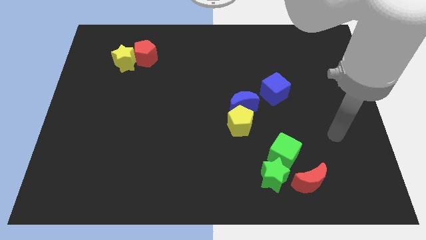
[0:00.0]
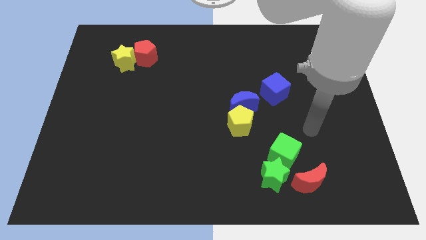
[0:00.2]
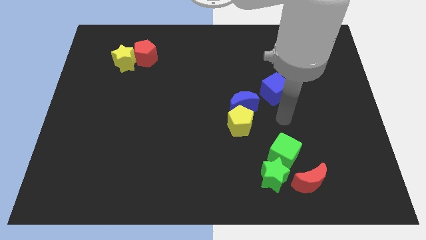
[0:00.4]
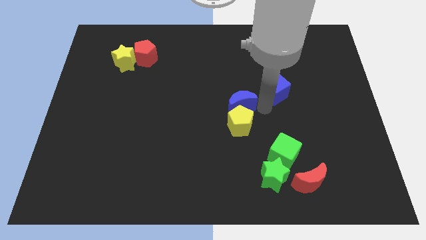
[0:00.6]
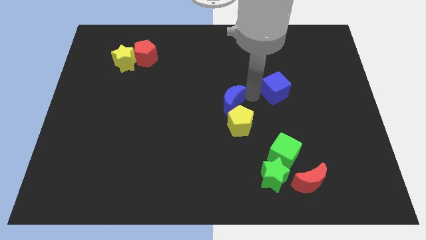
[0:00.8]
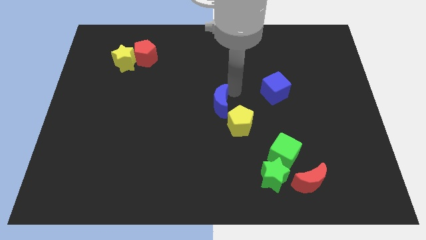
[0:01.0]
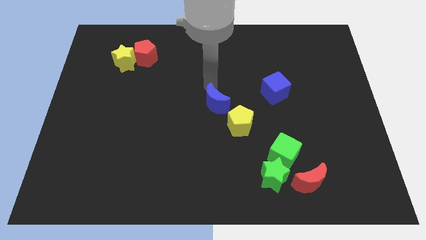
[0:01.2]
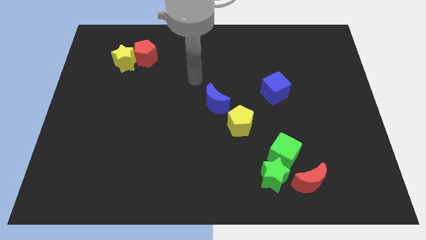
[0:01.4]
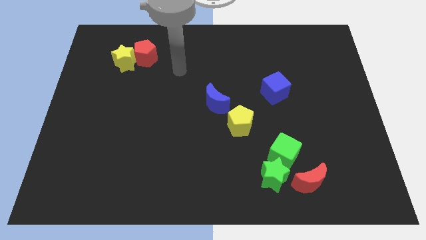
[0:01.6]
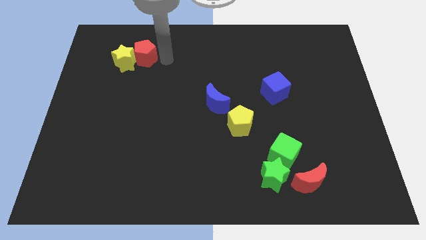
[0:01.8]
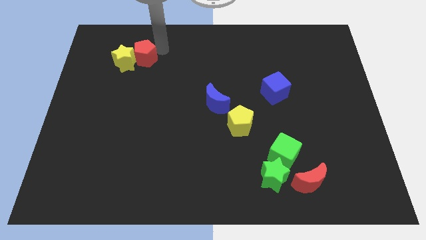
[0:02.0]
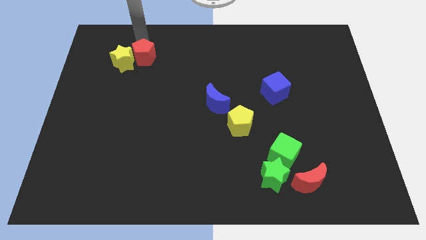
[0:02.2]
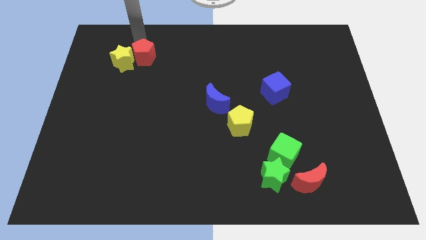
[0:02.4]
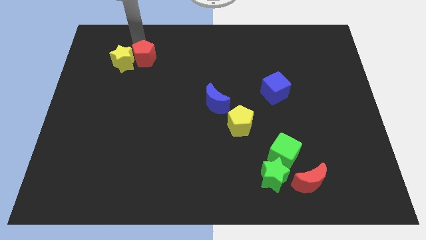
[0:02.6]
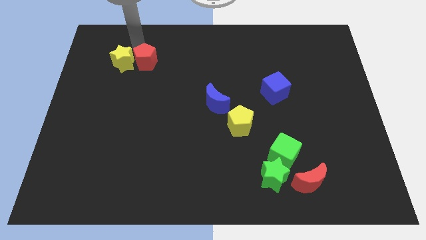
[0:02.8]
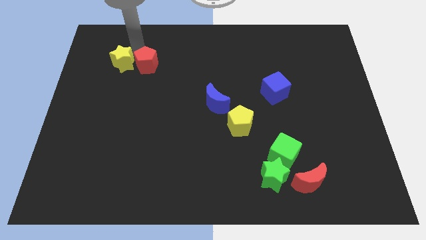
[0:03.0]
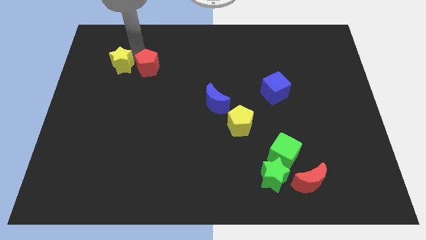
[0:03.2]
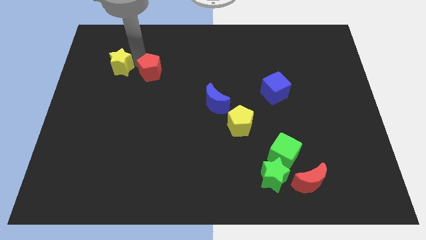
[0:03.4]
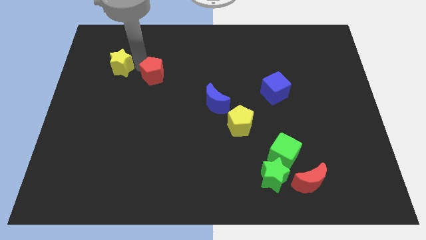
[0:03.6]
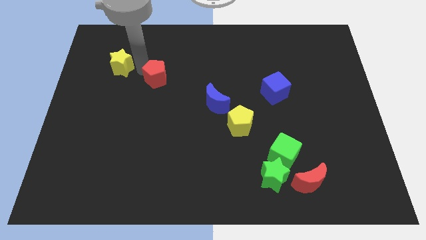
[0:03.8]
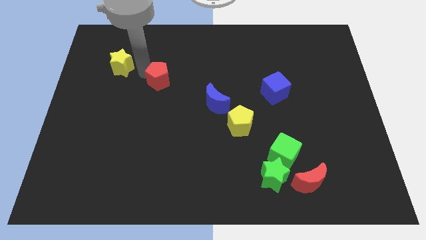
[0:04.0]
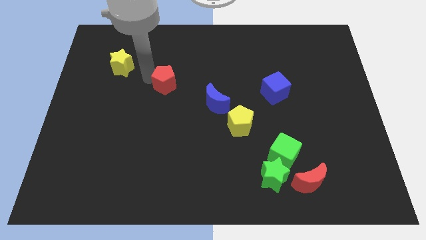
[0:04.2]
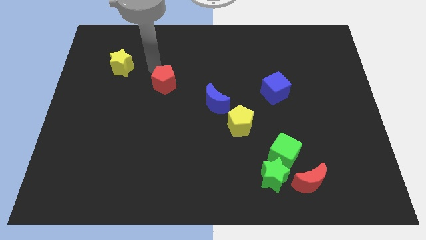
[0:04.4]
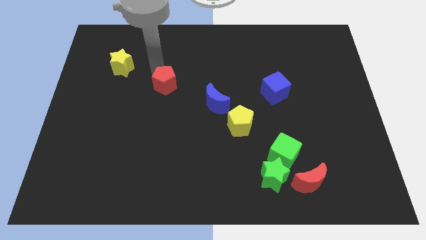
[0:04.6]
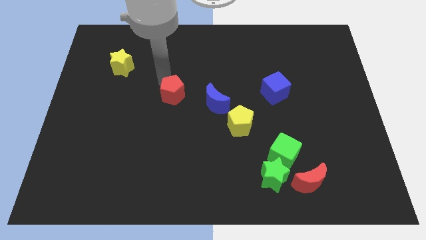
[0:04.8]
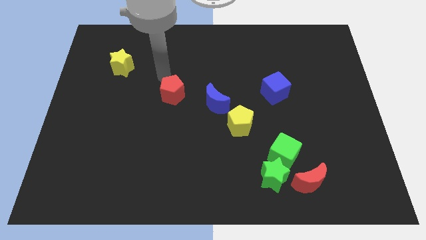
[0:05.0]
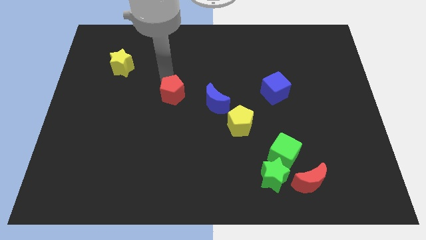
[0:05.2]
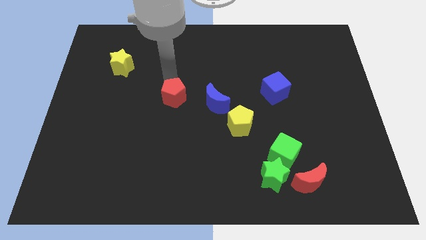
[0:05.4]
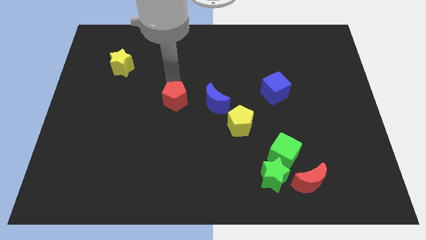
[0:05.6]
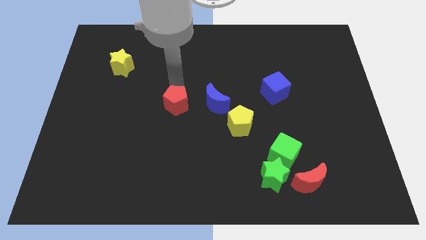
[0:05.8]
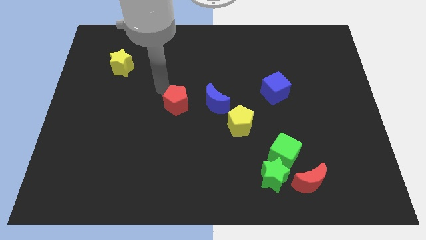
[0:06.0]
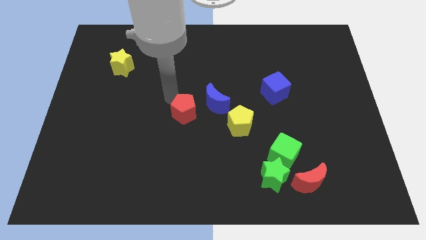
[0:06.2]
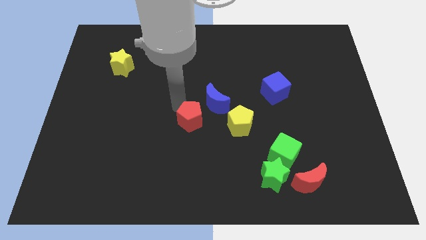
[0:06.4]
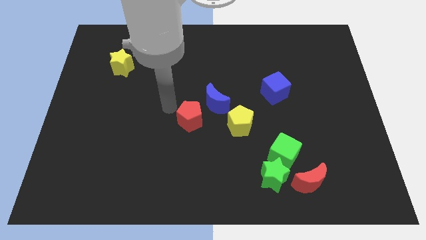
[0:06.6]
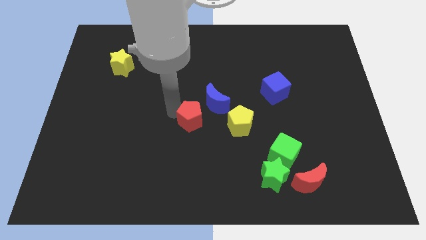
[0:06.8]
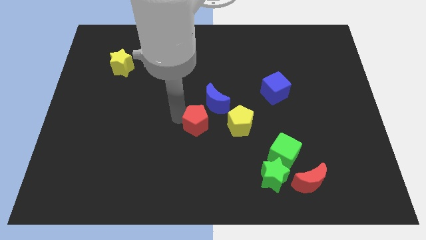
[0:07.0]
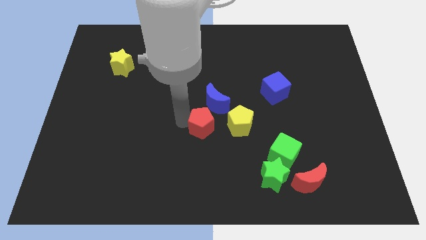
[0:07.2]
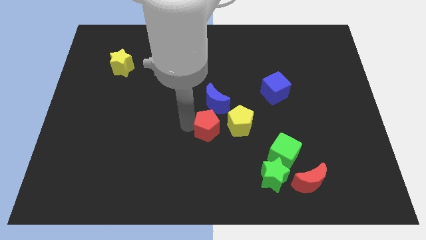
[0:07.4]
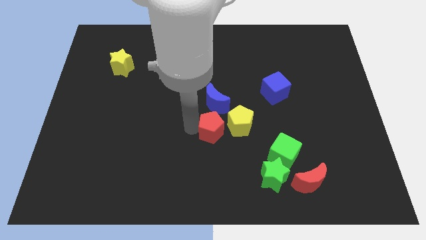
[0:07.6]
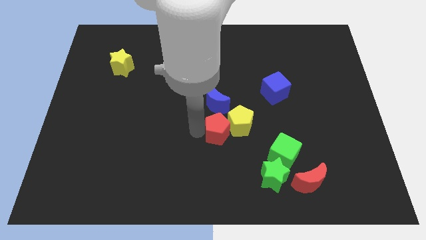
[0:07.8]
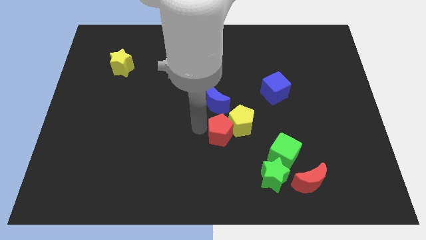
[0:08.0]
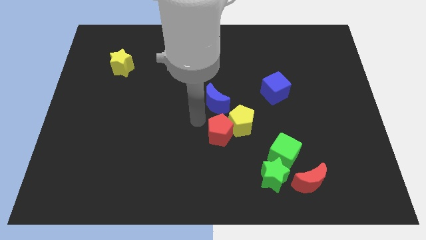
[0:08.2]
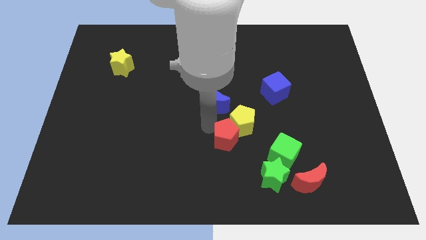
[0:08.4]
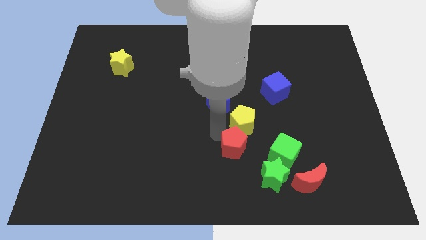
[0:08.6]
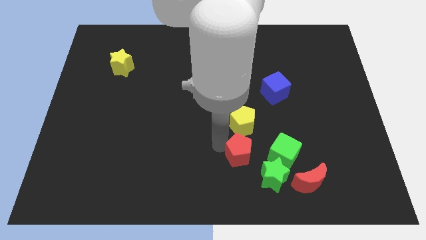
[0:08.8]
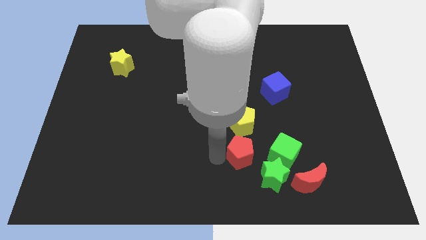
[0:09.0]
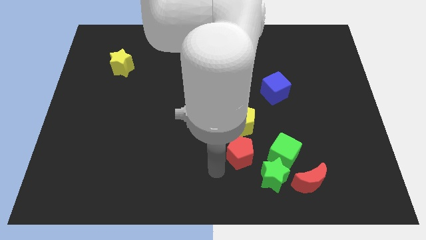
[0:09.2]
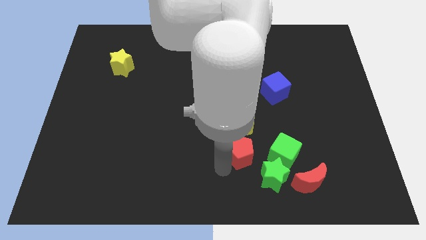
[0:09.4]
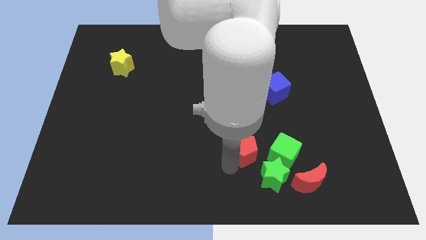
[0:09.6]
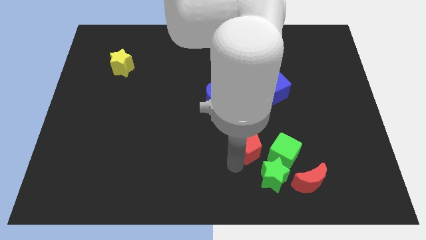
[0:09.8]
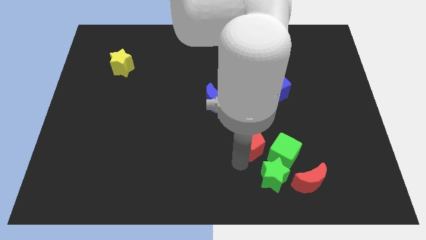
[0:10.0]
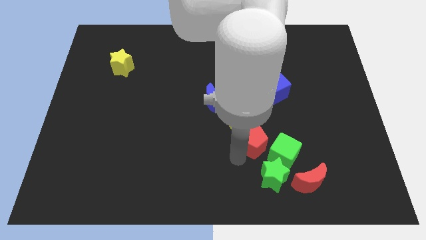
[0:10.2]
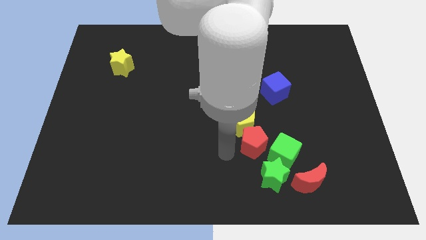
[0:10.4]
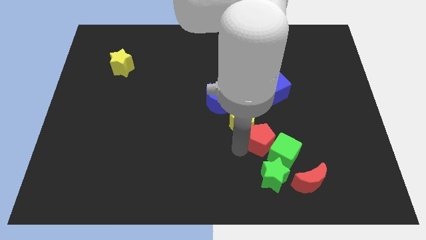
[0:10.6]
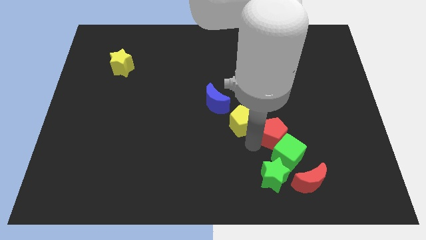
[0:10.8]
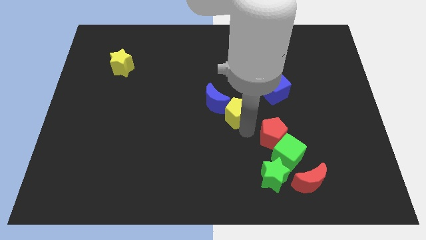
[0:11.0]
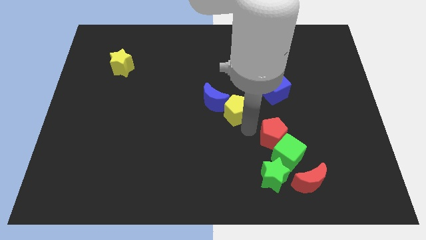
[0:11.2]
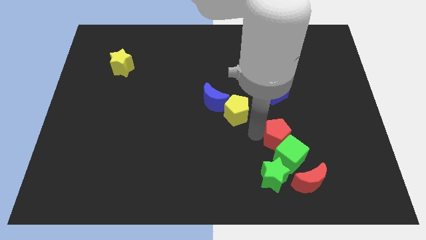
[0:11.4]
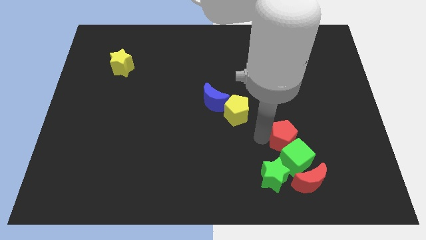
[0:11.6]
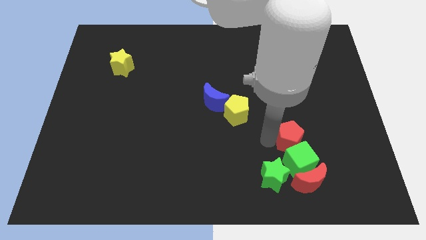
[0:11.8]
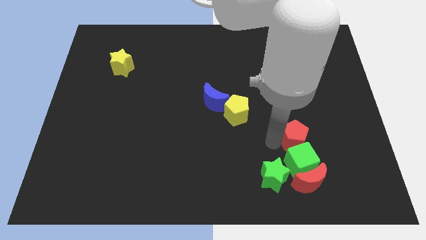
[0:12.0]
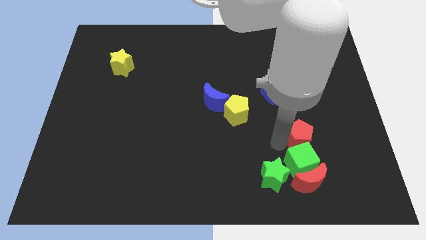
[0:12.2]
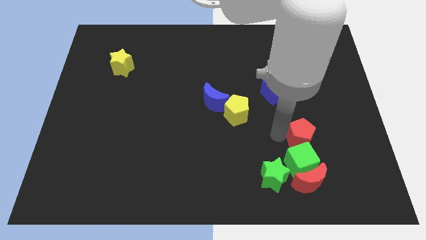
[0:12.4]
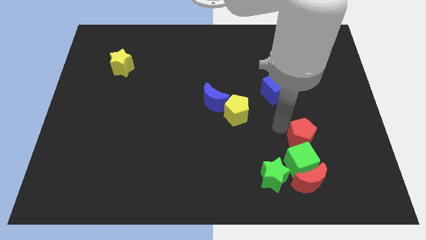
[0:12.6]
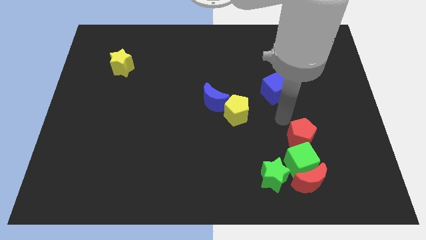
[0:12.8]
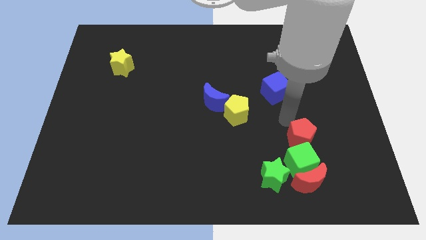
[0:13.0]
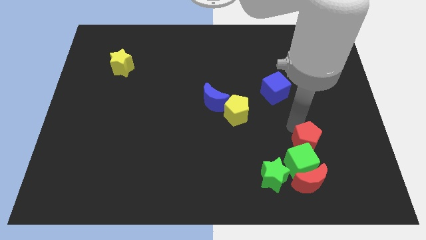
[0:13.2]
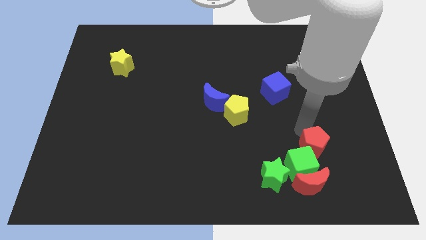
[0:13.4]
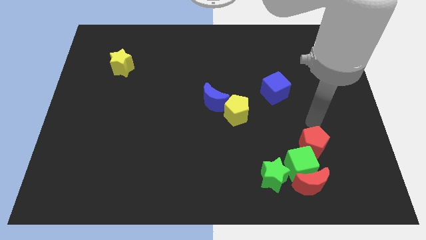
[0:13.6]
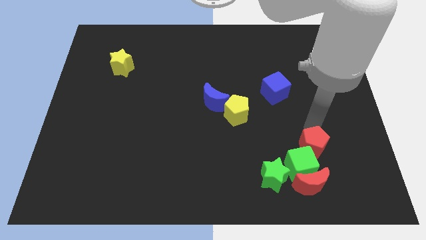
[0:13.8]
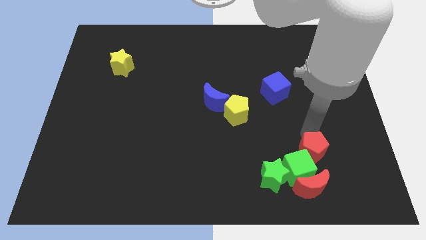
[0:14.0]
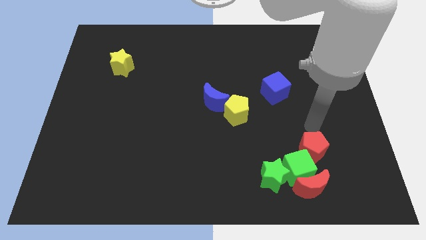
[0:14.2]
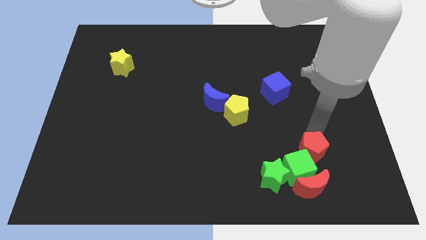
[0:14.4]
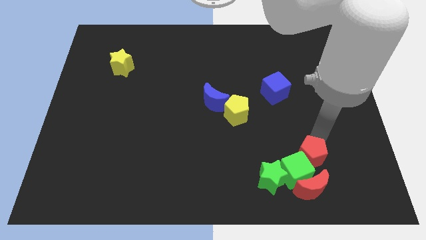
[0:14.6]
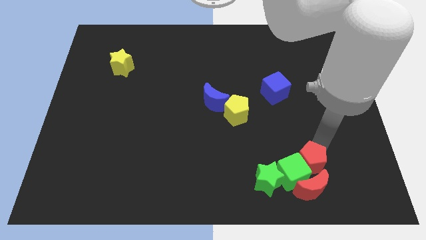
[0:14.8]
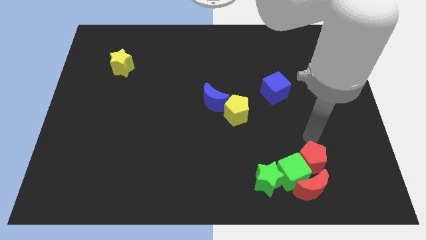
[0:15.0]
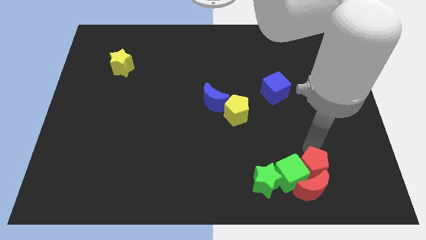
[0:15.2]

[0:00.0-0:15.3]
move the red pentagon next to the red moon
